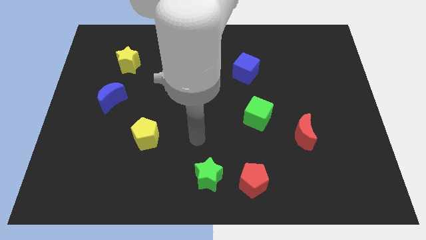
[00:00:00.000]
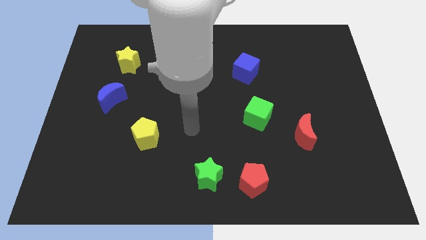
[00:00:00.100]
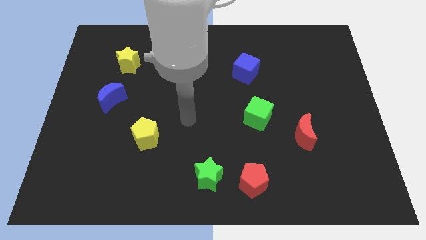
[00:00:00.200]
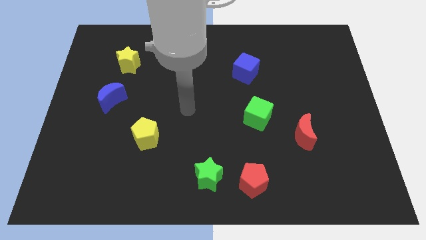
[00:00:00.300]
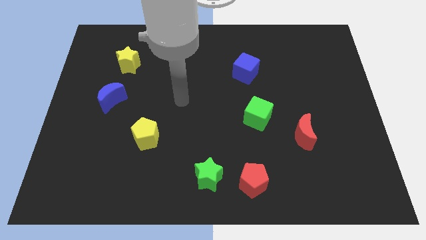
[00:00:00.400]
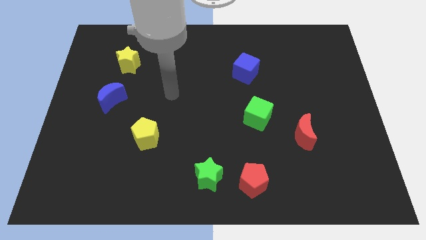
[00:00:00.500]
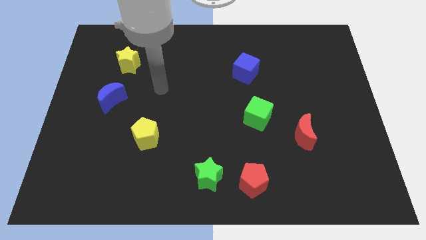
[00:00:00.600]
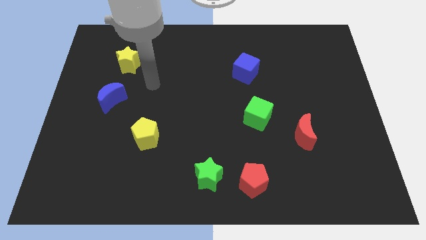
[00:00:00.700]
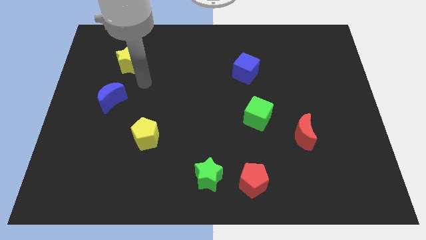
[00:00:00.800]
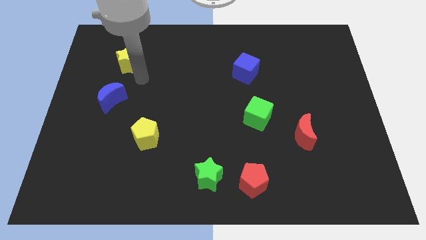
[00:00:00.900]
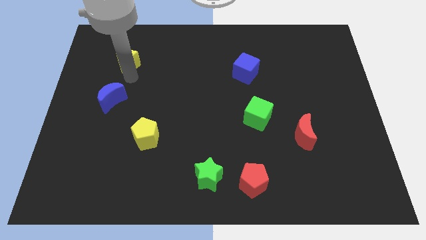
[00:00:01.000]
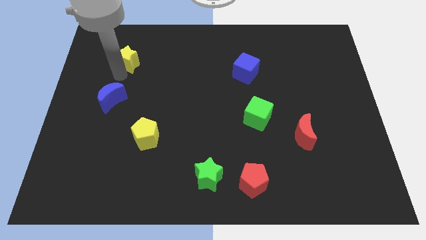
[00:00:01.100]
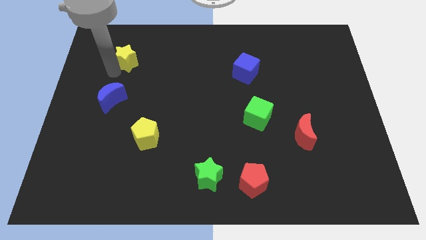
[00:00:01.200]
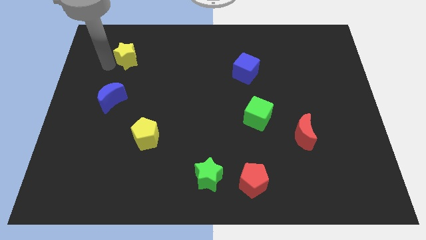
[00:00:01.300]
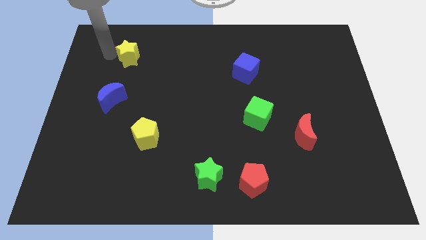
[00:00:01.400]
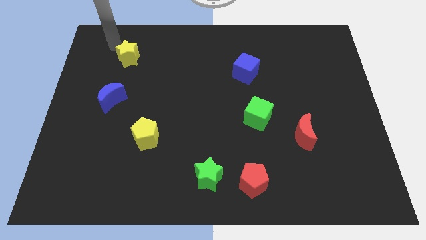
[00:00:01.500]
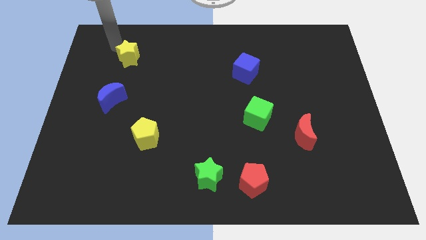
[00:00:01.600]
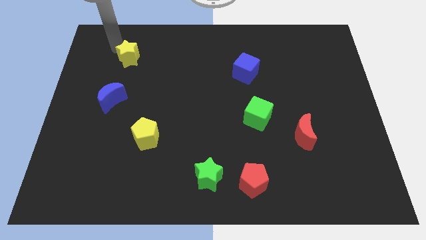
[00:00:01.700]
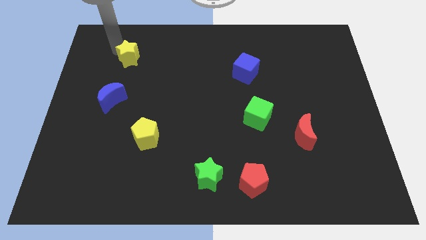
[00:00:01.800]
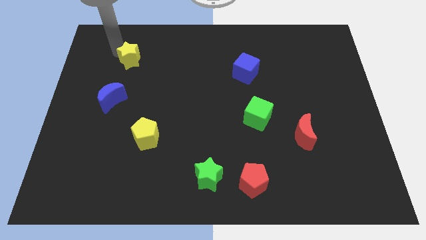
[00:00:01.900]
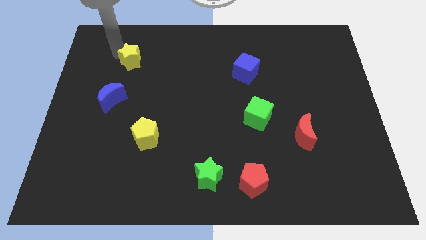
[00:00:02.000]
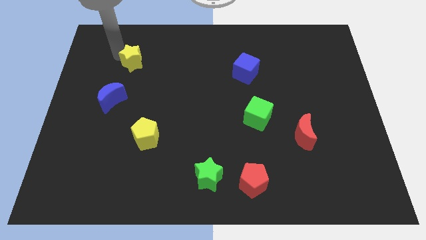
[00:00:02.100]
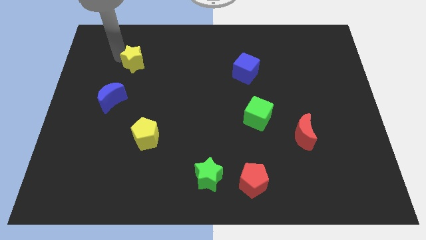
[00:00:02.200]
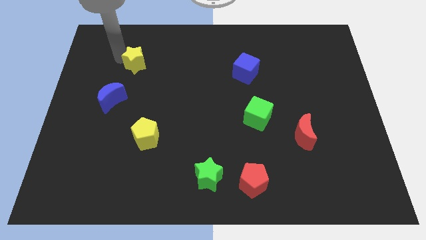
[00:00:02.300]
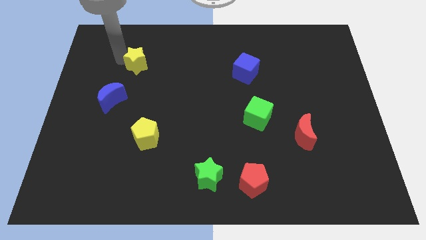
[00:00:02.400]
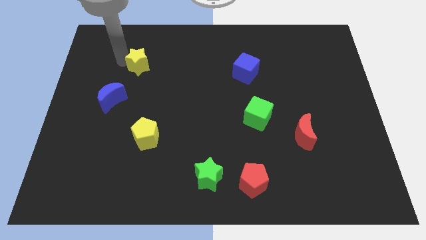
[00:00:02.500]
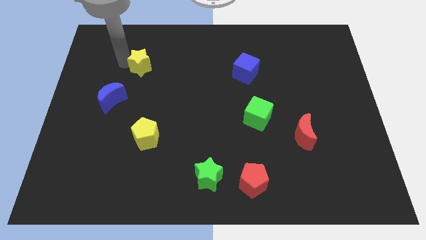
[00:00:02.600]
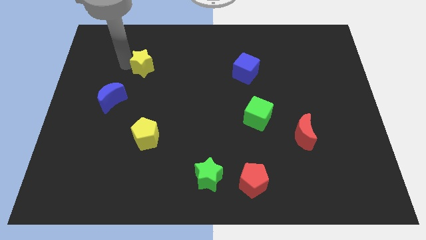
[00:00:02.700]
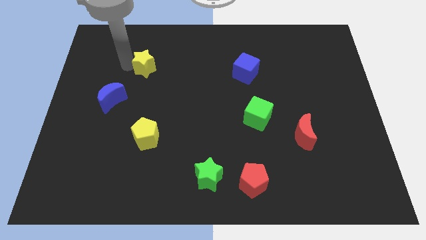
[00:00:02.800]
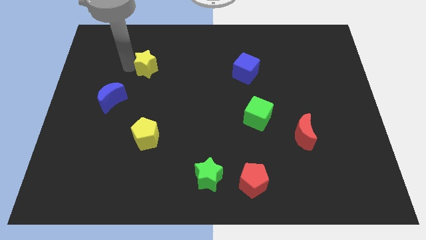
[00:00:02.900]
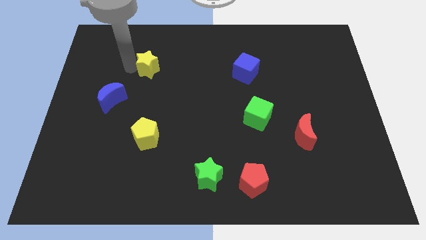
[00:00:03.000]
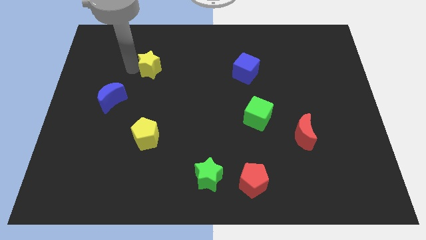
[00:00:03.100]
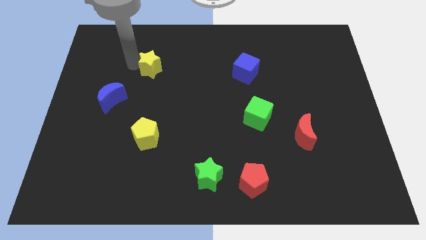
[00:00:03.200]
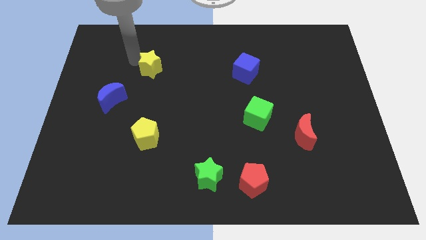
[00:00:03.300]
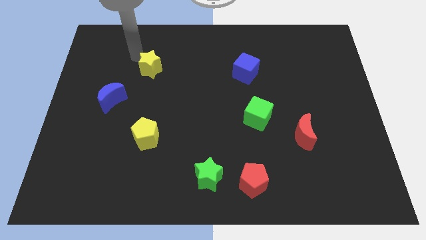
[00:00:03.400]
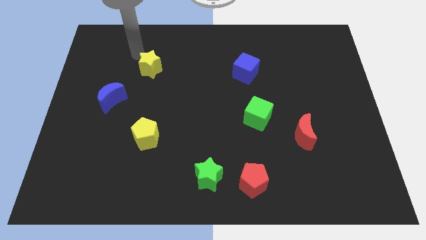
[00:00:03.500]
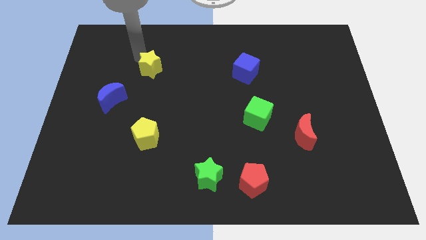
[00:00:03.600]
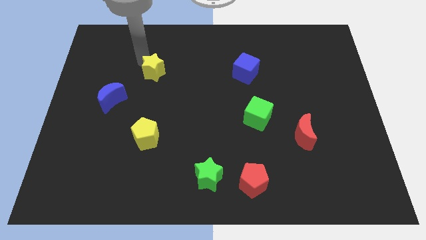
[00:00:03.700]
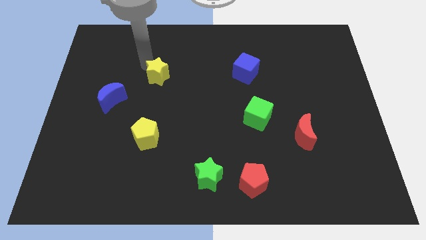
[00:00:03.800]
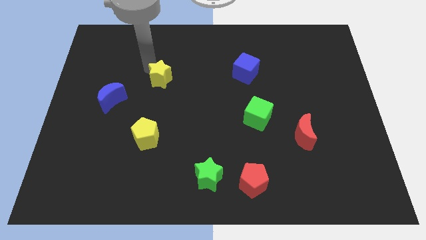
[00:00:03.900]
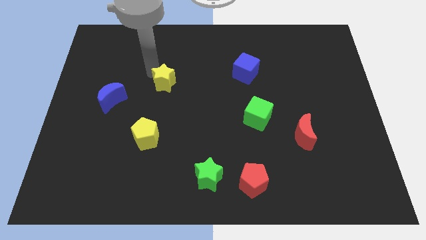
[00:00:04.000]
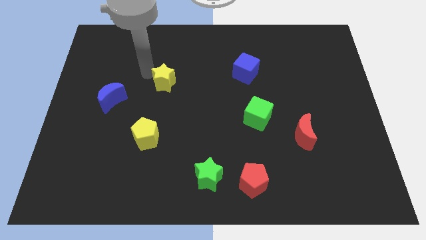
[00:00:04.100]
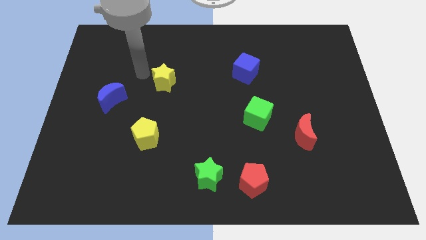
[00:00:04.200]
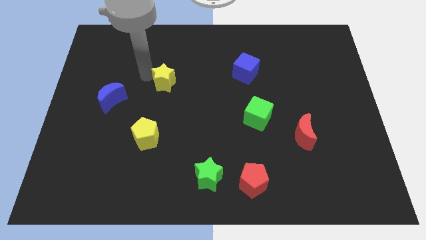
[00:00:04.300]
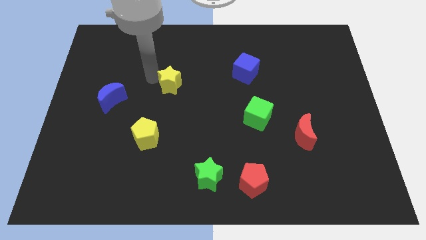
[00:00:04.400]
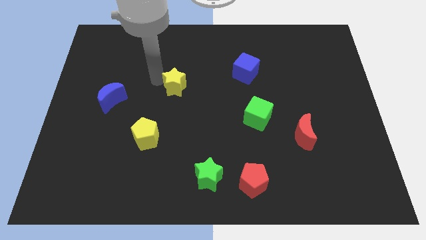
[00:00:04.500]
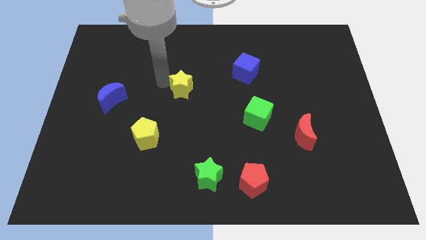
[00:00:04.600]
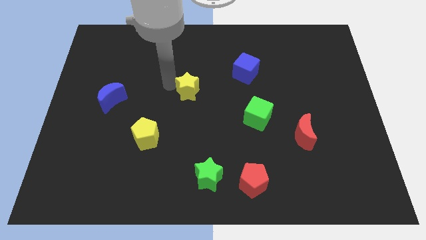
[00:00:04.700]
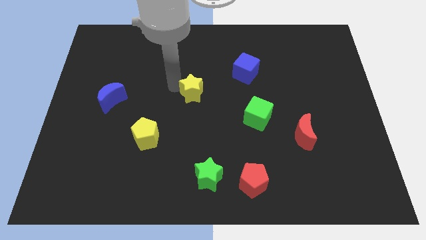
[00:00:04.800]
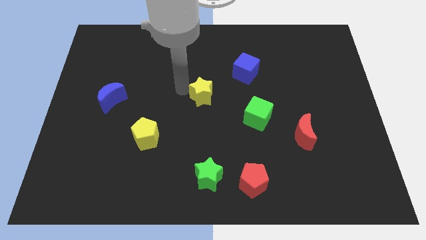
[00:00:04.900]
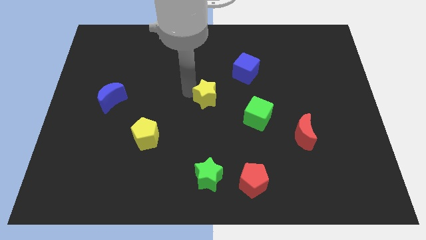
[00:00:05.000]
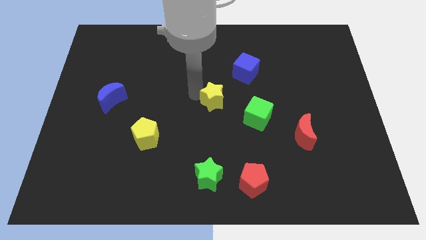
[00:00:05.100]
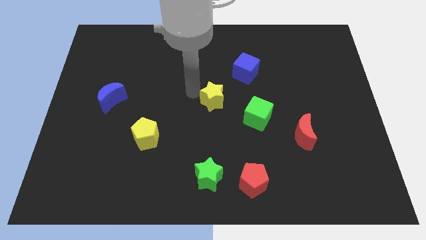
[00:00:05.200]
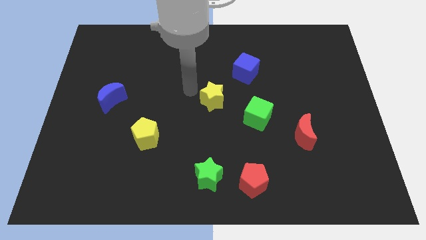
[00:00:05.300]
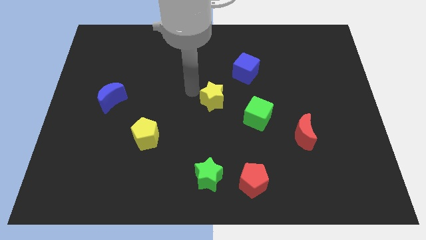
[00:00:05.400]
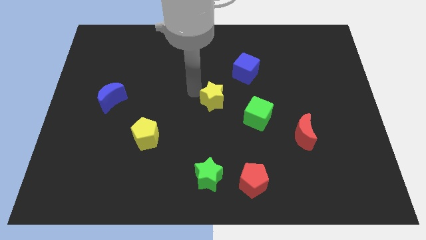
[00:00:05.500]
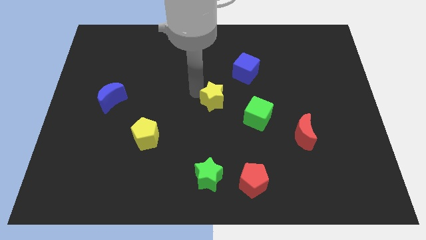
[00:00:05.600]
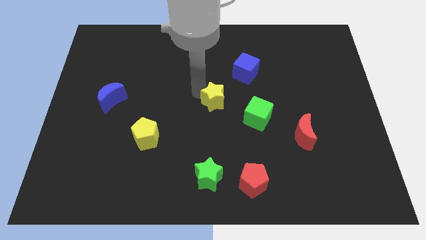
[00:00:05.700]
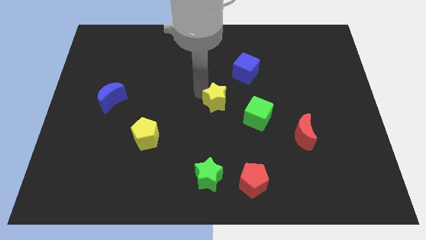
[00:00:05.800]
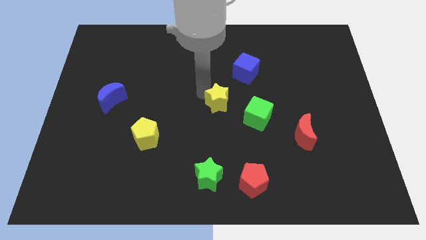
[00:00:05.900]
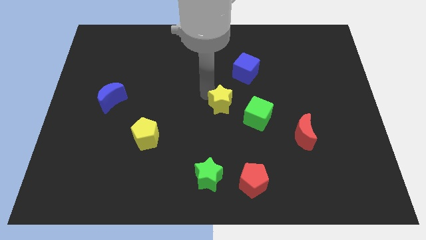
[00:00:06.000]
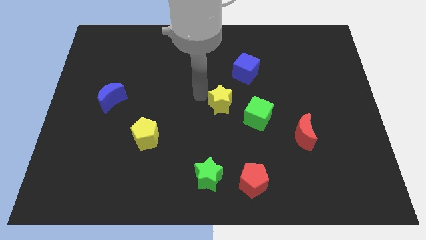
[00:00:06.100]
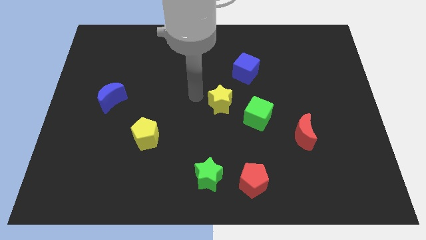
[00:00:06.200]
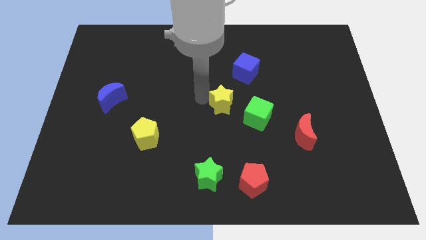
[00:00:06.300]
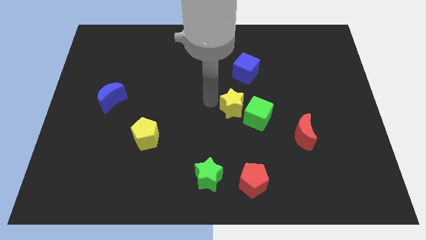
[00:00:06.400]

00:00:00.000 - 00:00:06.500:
move the yellow star close to the green cube

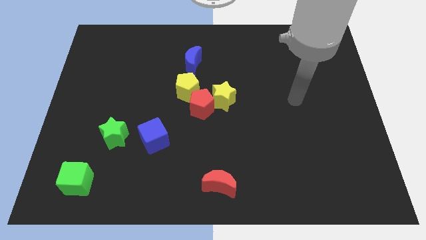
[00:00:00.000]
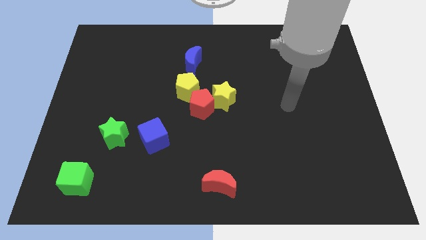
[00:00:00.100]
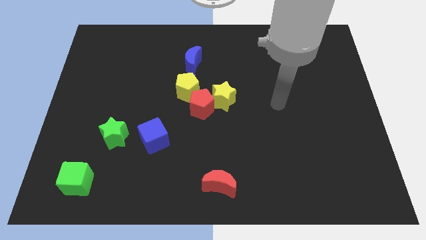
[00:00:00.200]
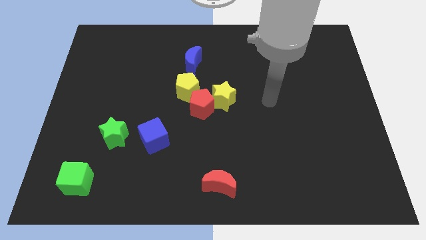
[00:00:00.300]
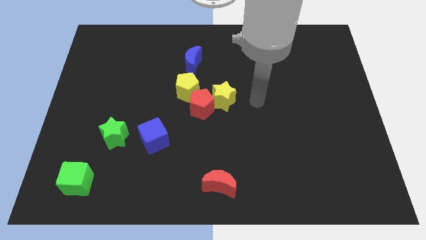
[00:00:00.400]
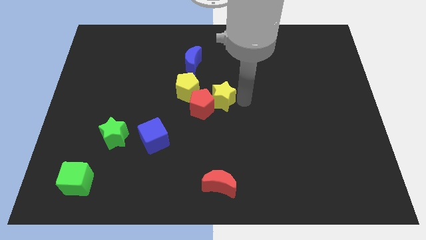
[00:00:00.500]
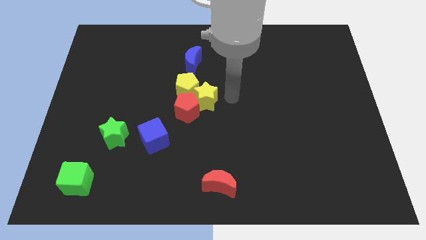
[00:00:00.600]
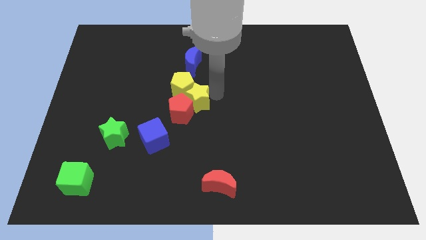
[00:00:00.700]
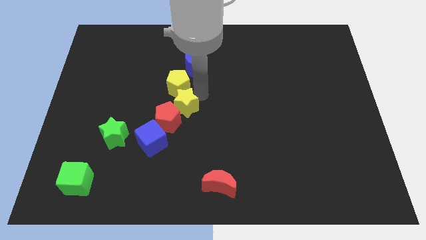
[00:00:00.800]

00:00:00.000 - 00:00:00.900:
put the red pentagon towards the blue cube
